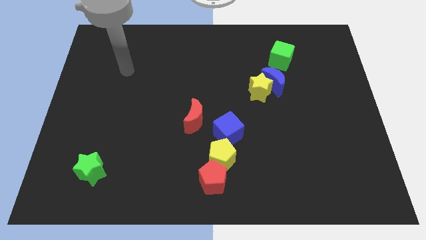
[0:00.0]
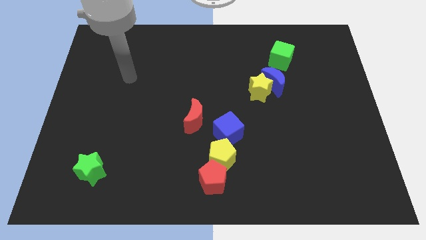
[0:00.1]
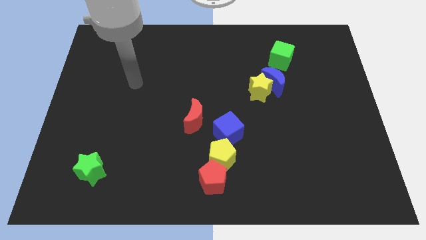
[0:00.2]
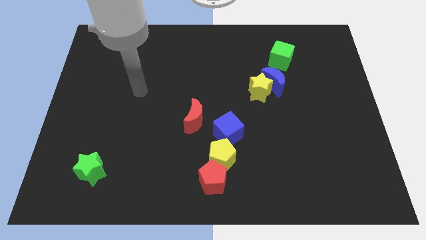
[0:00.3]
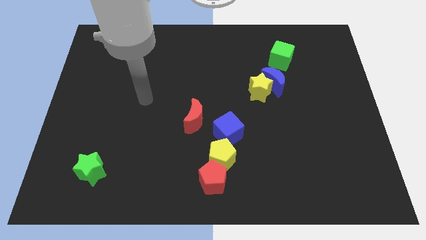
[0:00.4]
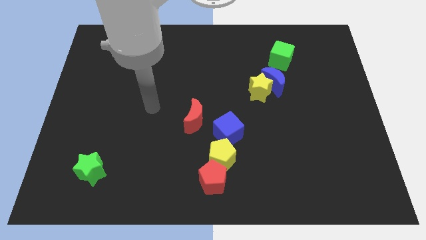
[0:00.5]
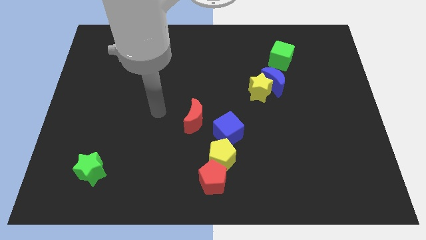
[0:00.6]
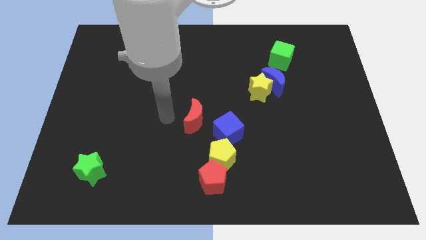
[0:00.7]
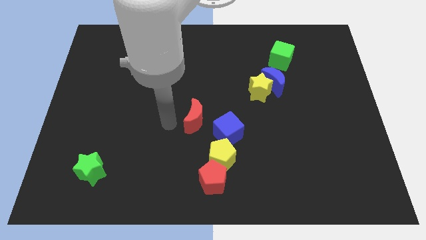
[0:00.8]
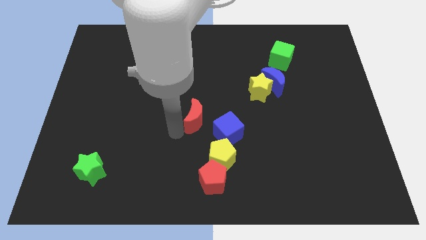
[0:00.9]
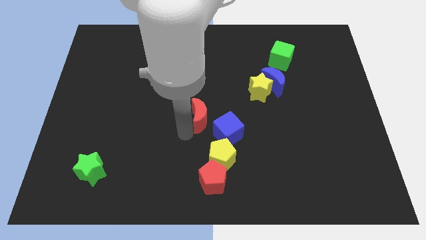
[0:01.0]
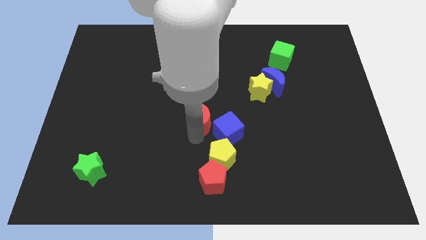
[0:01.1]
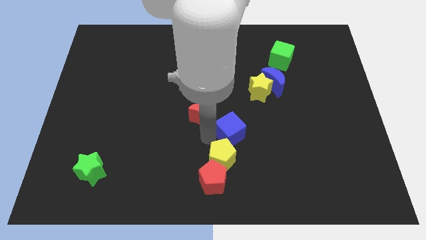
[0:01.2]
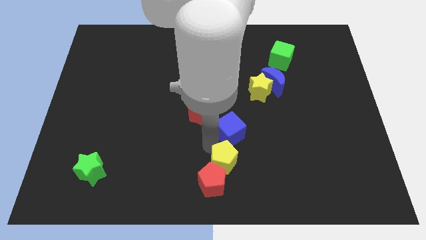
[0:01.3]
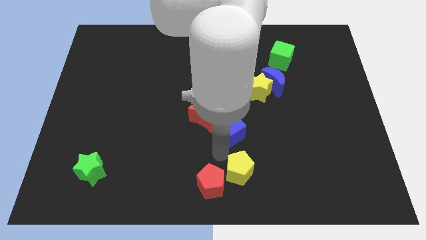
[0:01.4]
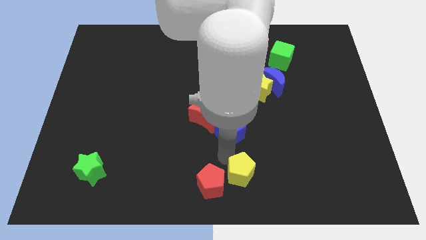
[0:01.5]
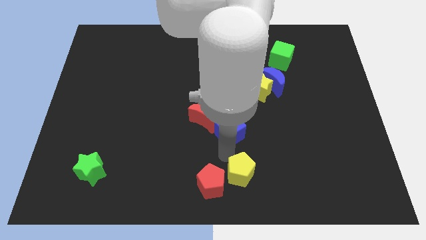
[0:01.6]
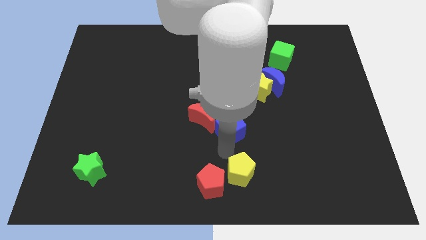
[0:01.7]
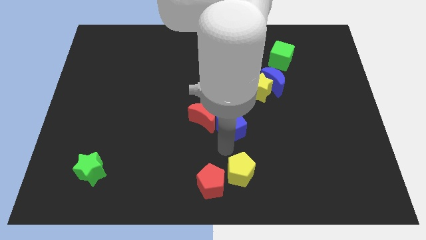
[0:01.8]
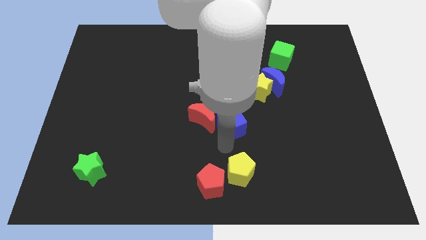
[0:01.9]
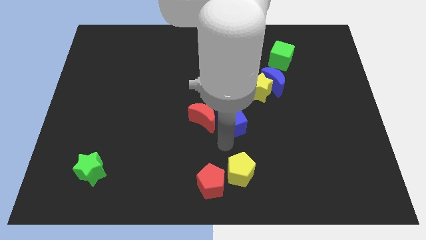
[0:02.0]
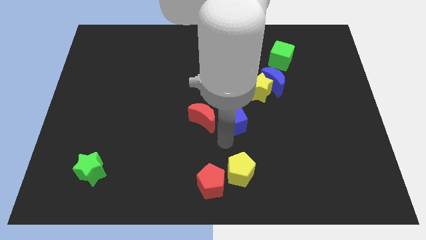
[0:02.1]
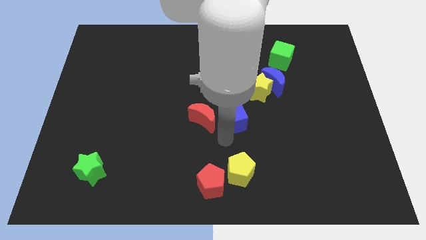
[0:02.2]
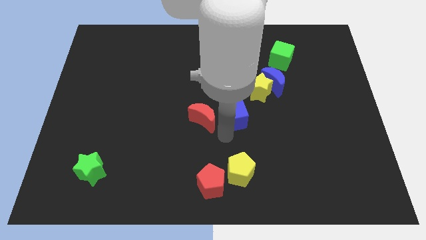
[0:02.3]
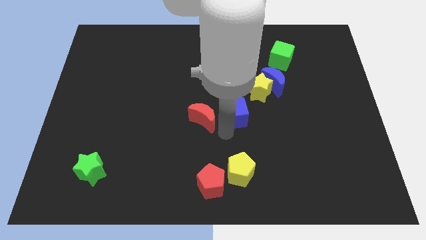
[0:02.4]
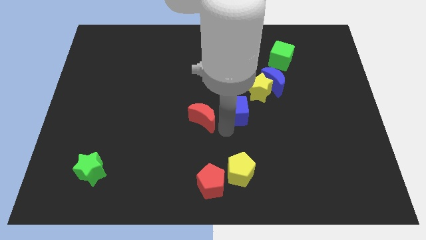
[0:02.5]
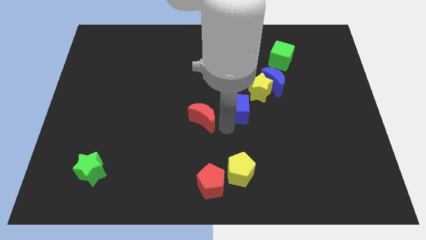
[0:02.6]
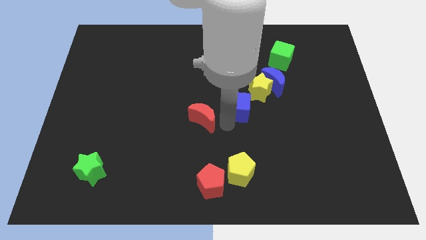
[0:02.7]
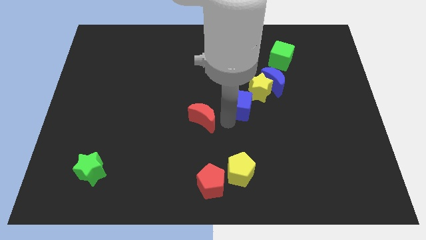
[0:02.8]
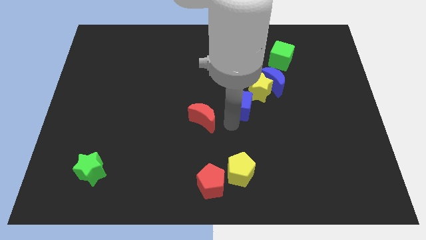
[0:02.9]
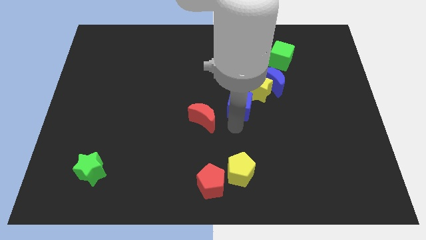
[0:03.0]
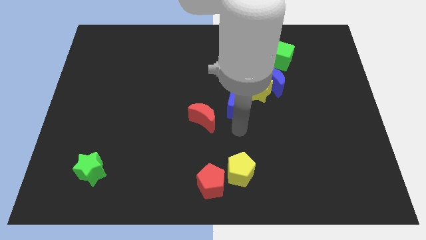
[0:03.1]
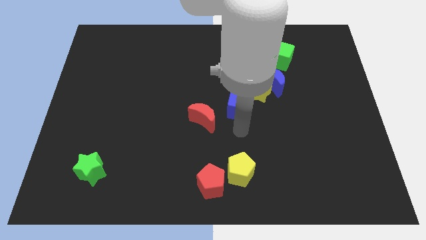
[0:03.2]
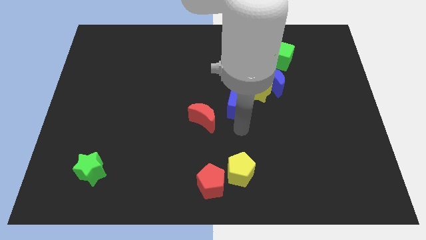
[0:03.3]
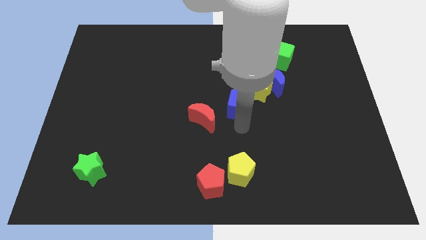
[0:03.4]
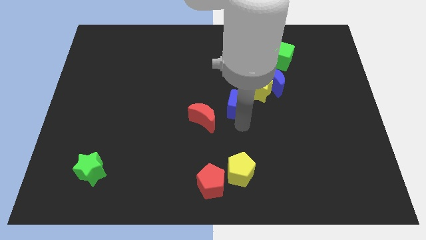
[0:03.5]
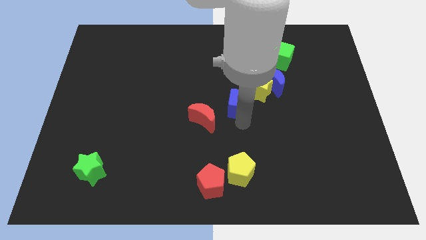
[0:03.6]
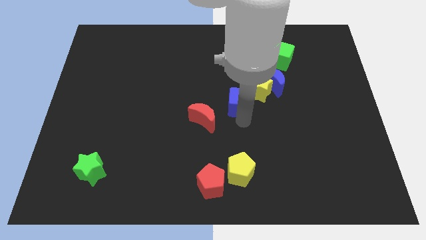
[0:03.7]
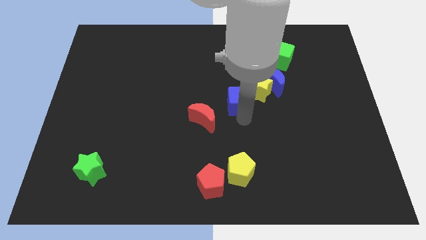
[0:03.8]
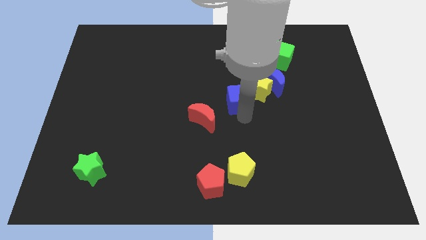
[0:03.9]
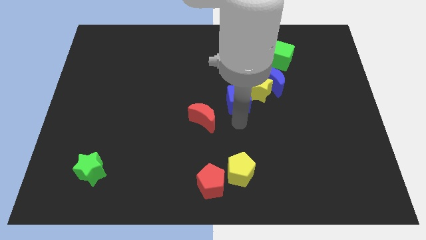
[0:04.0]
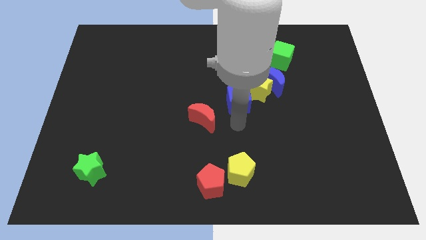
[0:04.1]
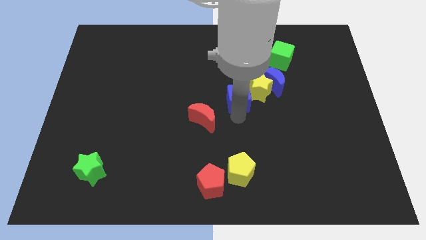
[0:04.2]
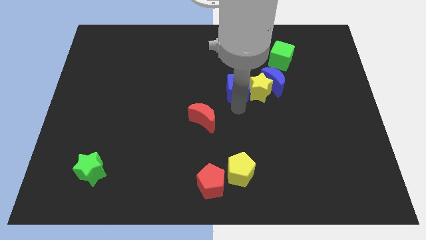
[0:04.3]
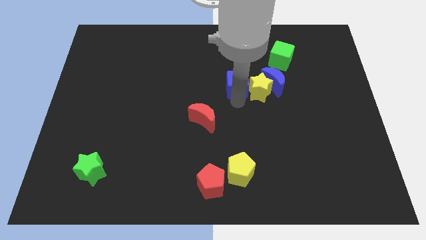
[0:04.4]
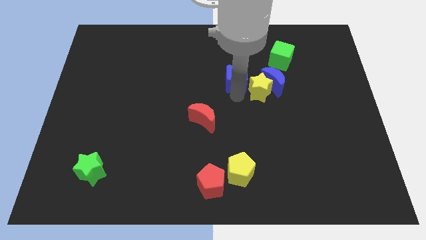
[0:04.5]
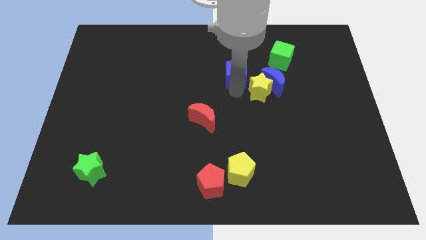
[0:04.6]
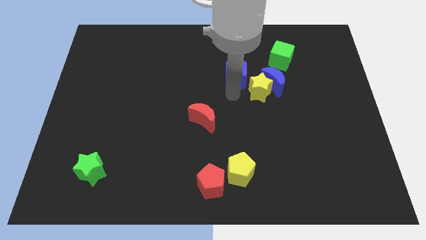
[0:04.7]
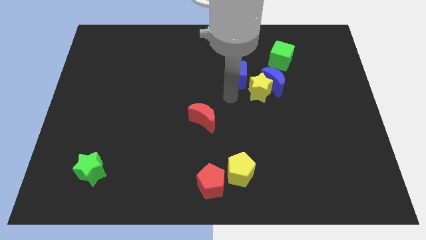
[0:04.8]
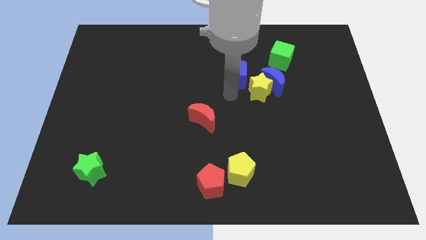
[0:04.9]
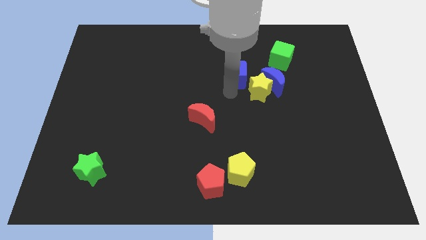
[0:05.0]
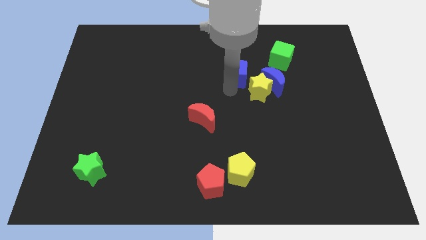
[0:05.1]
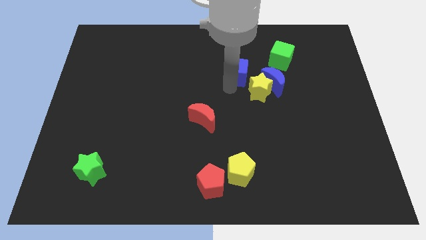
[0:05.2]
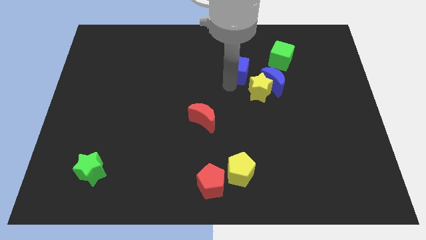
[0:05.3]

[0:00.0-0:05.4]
put the blue cube left of the green cube

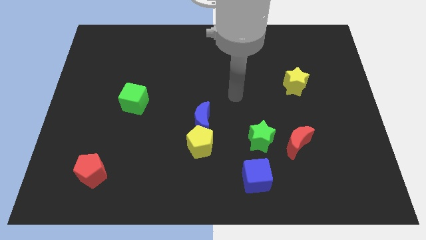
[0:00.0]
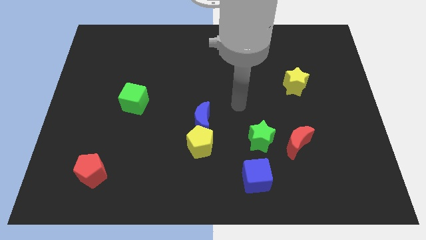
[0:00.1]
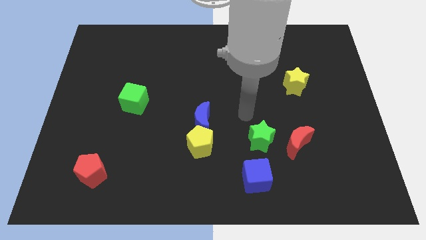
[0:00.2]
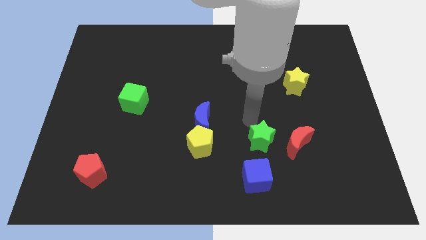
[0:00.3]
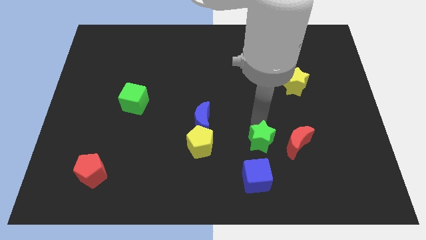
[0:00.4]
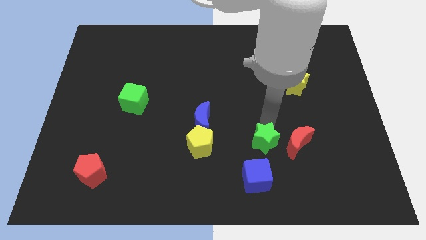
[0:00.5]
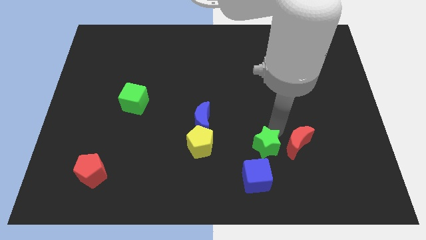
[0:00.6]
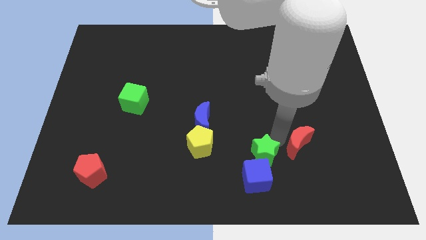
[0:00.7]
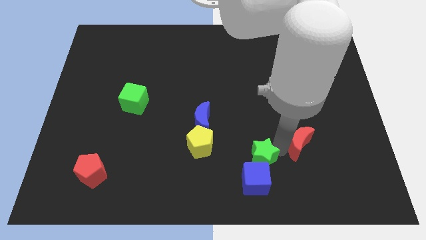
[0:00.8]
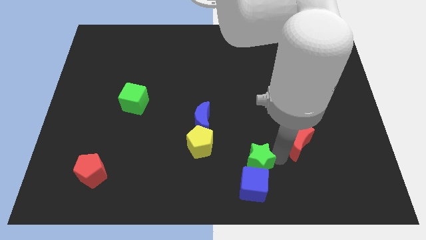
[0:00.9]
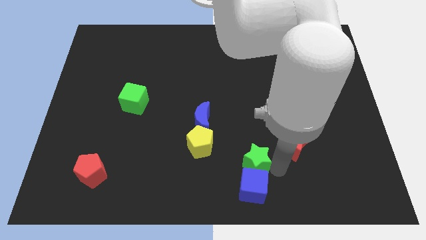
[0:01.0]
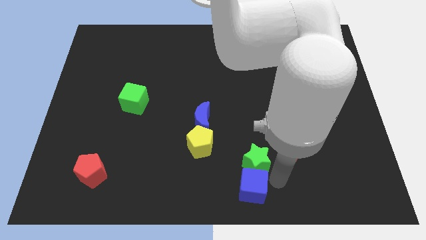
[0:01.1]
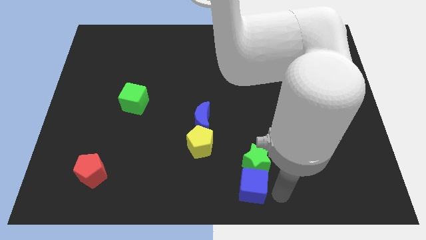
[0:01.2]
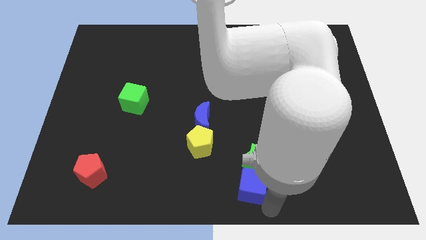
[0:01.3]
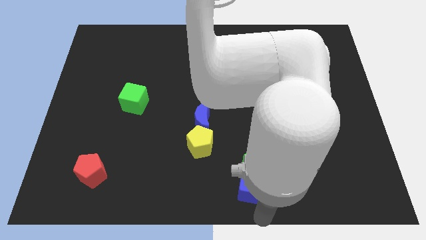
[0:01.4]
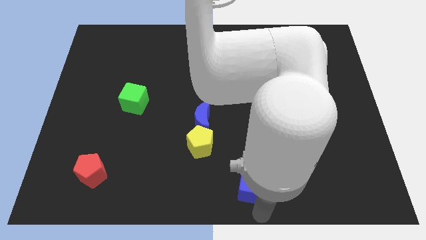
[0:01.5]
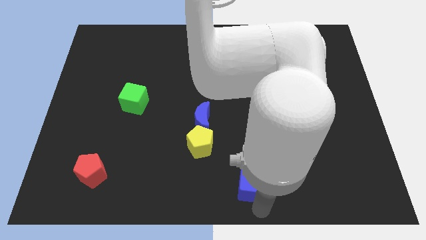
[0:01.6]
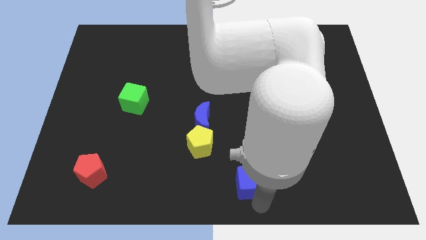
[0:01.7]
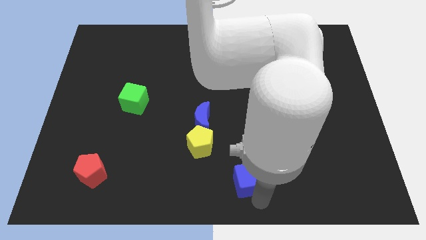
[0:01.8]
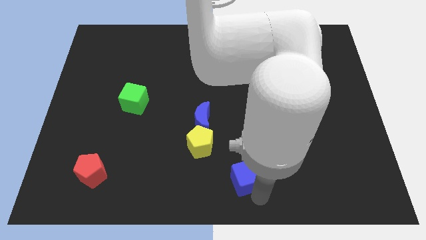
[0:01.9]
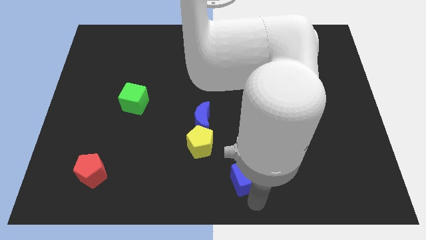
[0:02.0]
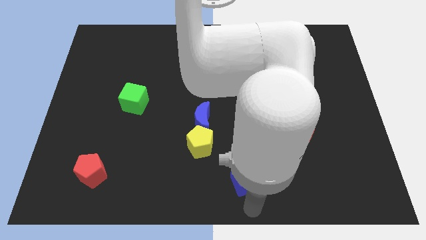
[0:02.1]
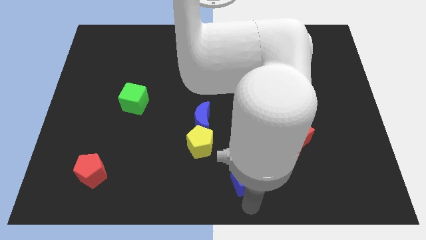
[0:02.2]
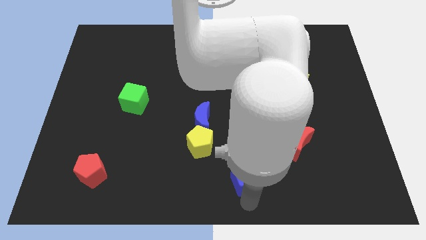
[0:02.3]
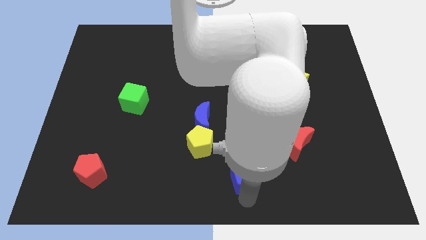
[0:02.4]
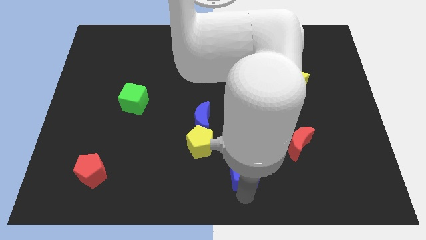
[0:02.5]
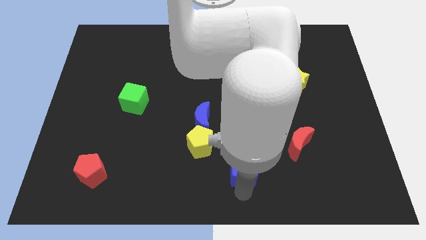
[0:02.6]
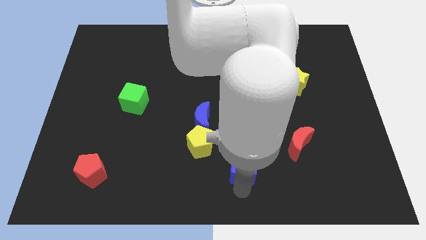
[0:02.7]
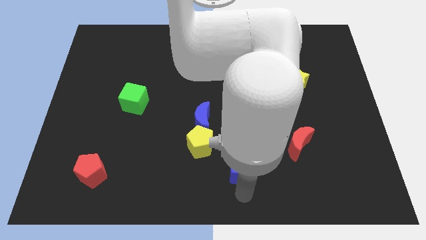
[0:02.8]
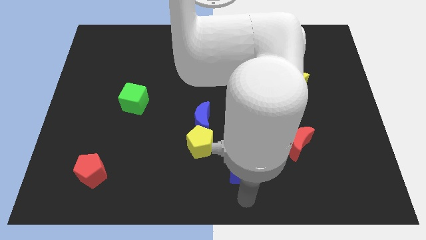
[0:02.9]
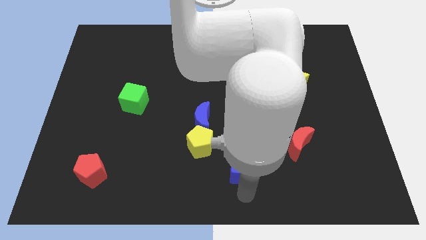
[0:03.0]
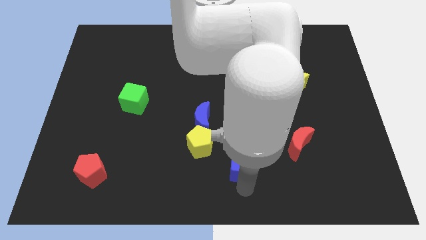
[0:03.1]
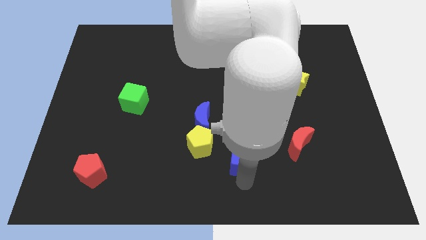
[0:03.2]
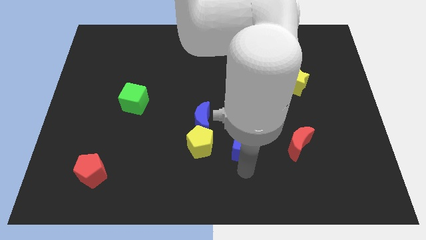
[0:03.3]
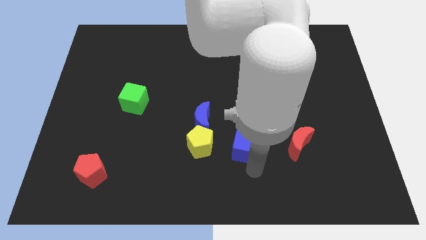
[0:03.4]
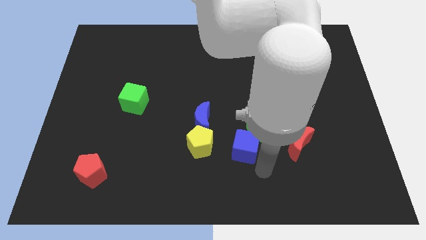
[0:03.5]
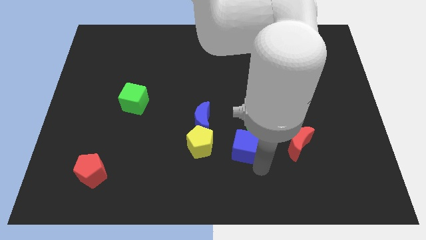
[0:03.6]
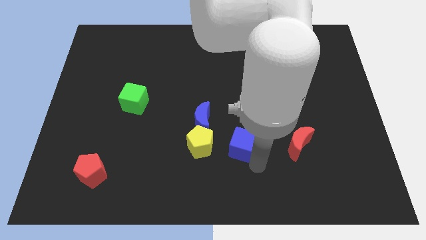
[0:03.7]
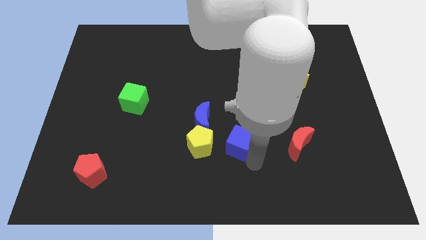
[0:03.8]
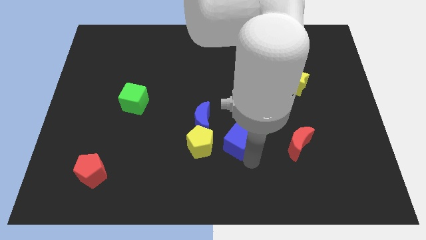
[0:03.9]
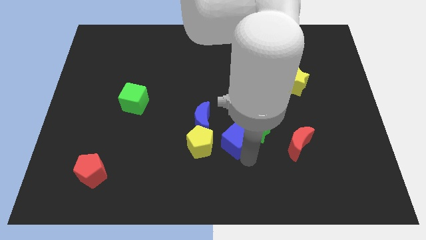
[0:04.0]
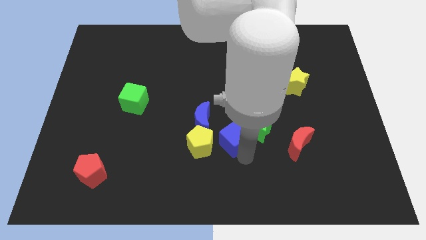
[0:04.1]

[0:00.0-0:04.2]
move the blue cube to the top right of the yellow pentagon
